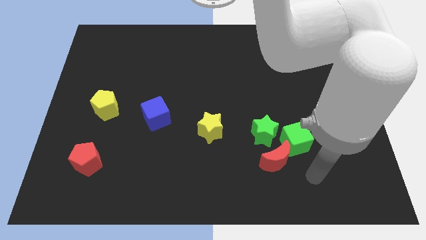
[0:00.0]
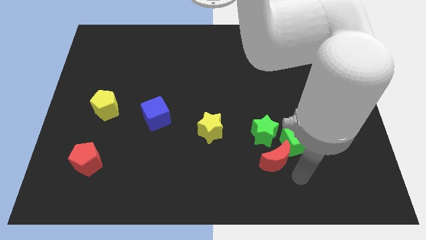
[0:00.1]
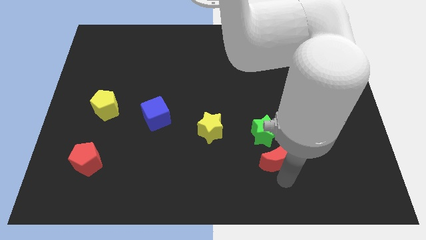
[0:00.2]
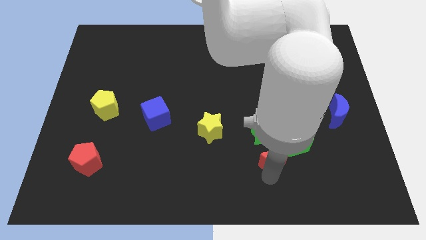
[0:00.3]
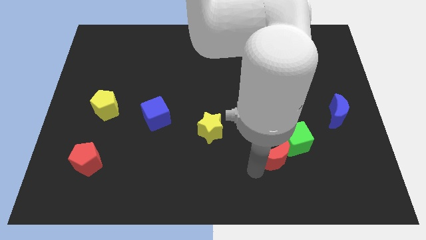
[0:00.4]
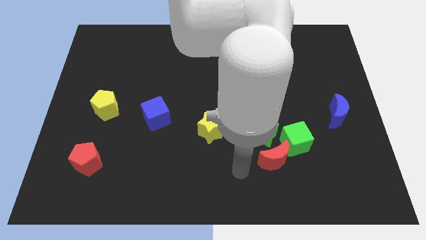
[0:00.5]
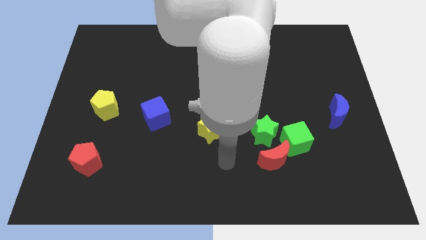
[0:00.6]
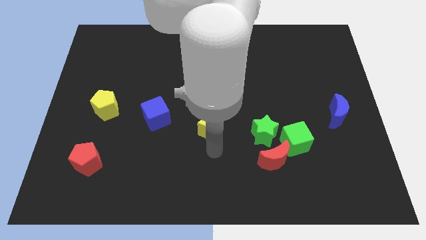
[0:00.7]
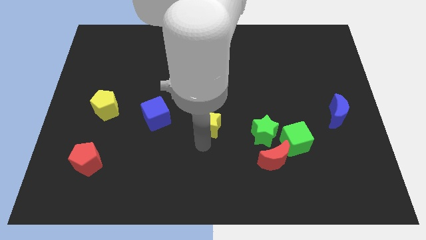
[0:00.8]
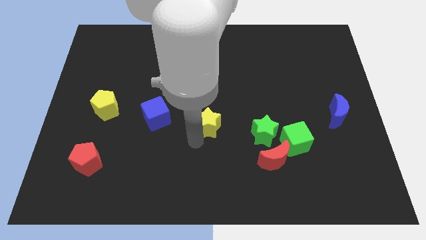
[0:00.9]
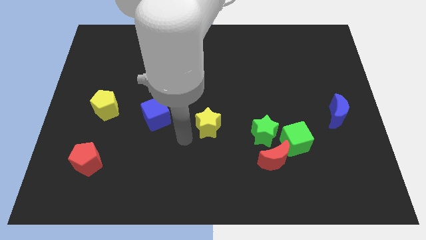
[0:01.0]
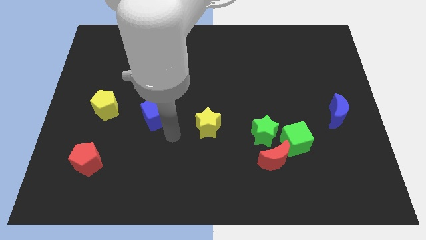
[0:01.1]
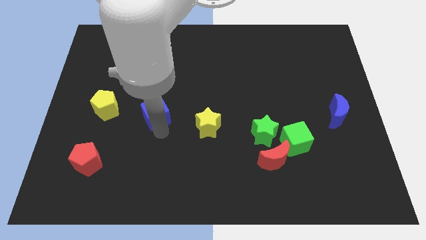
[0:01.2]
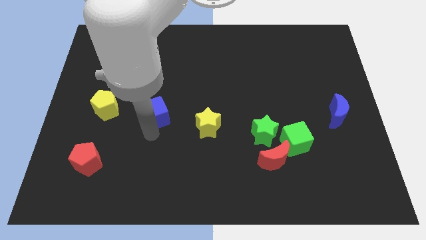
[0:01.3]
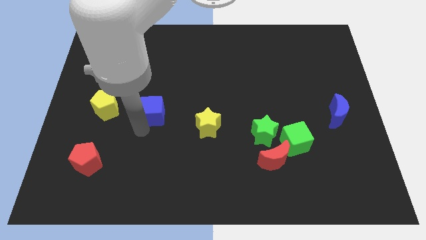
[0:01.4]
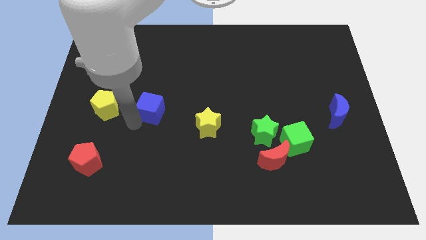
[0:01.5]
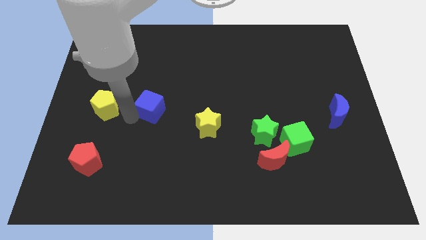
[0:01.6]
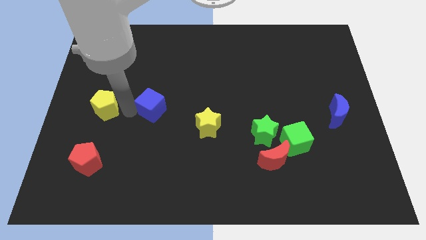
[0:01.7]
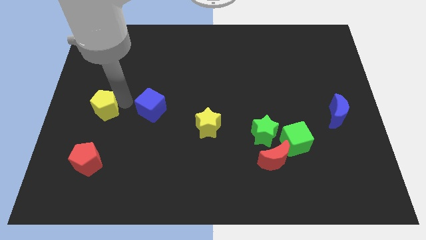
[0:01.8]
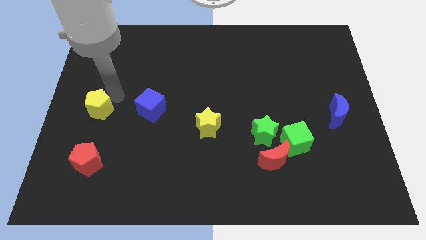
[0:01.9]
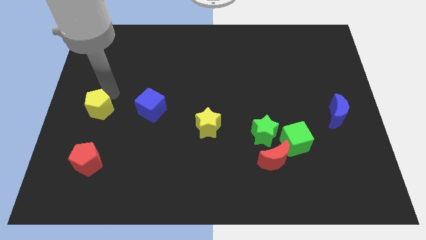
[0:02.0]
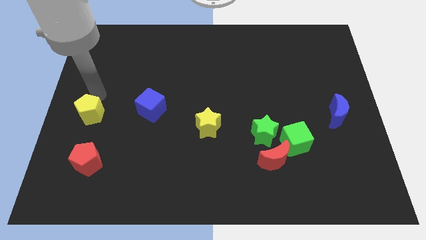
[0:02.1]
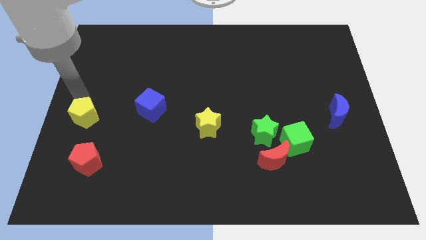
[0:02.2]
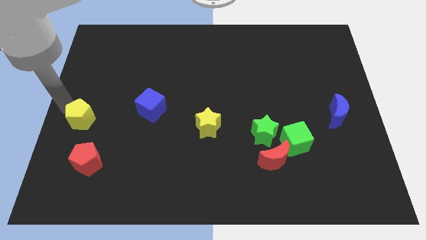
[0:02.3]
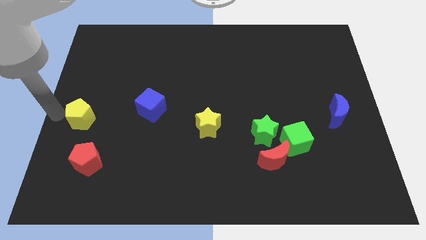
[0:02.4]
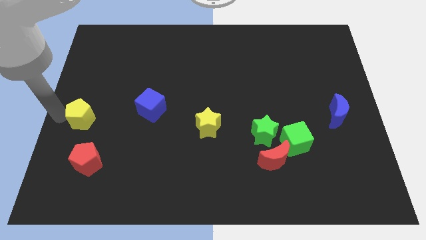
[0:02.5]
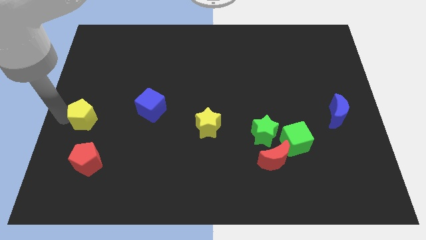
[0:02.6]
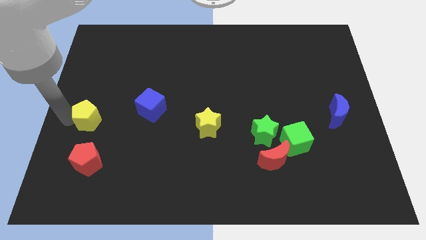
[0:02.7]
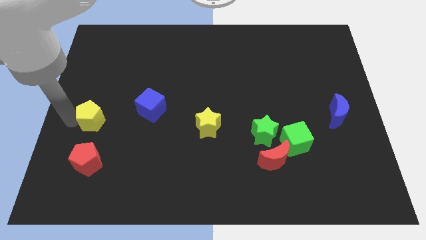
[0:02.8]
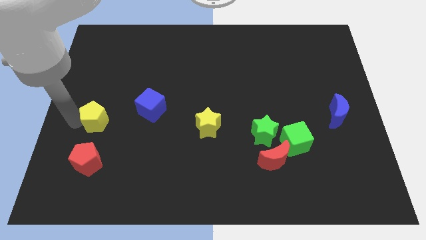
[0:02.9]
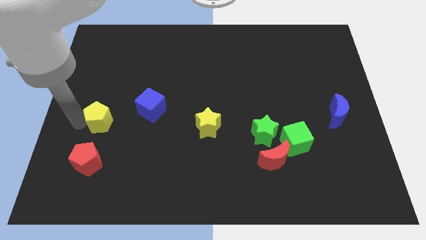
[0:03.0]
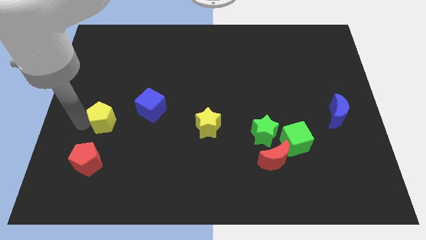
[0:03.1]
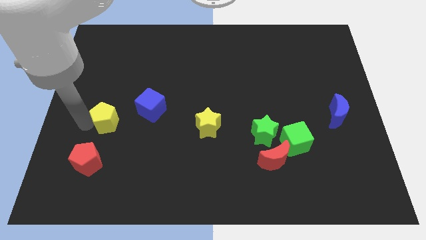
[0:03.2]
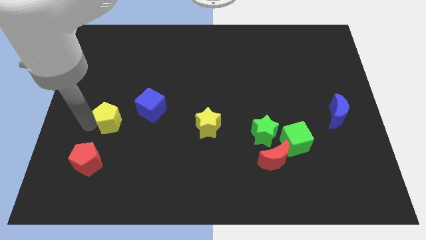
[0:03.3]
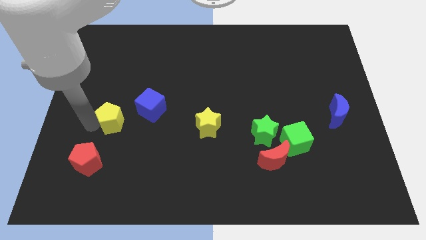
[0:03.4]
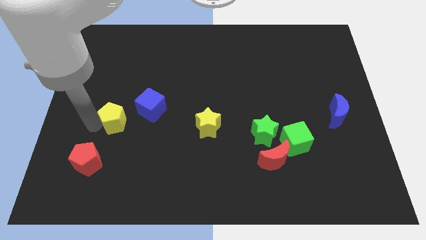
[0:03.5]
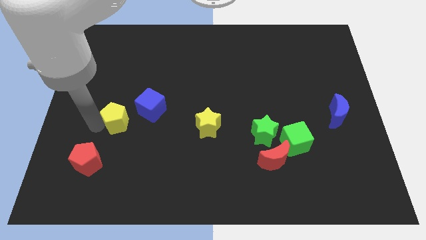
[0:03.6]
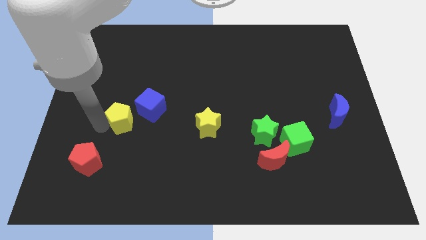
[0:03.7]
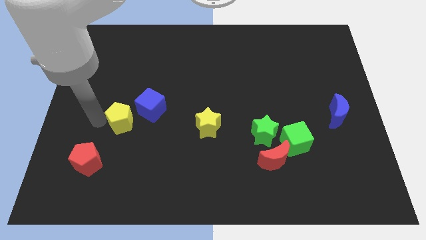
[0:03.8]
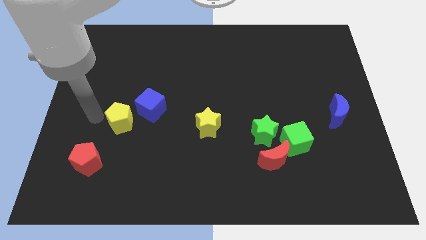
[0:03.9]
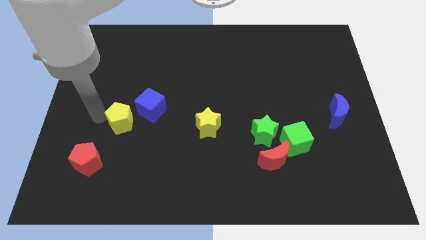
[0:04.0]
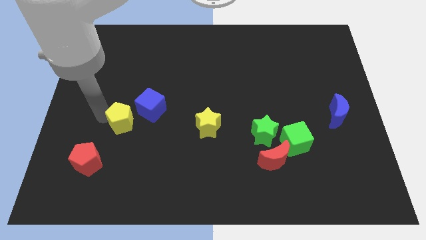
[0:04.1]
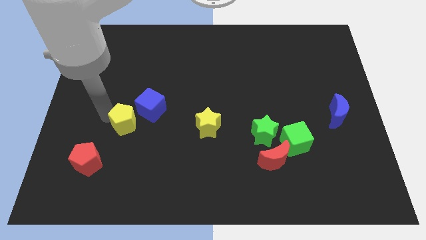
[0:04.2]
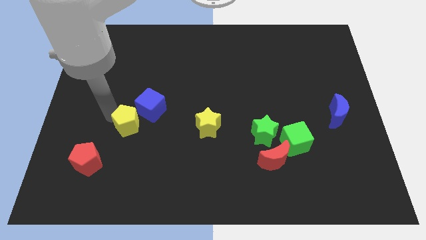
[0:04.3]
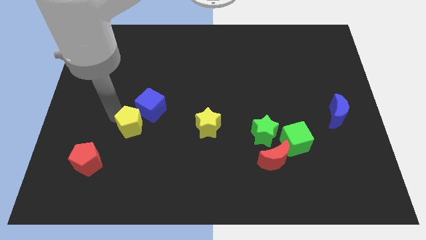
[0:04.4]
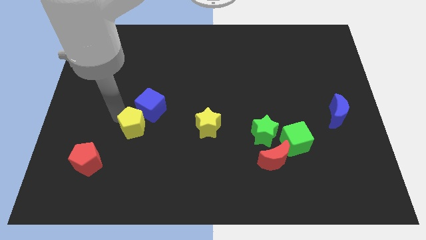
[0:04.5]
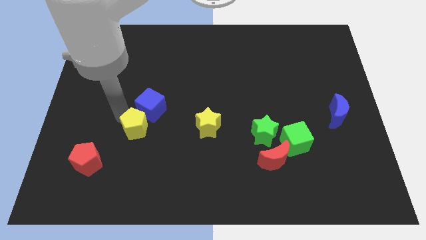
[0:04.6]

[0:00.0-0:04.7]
put the yellow pentagon left of the yellow star

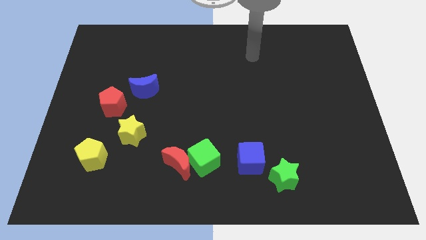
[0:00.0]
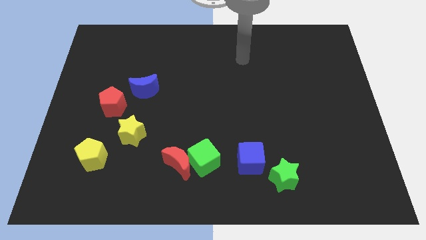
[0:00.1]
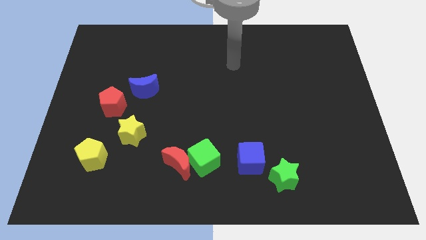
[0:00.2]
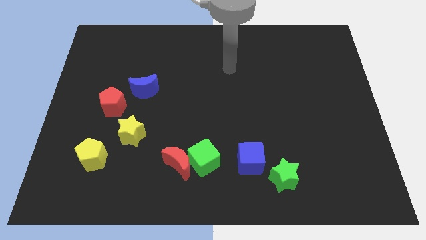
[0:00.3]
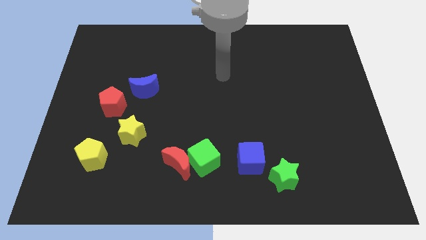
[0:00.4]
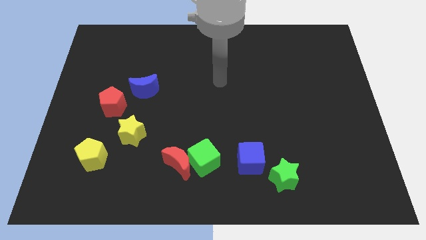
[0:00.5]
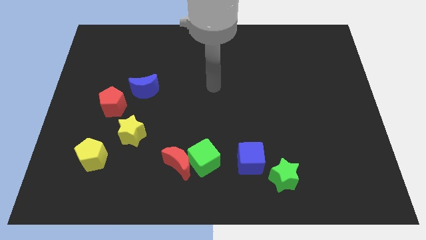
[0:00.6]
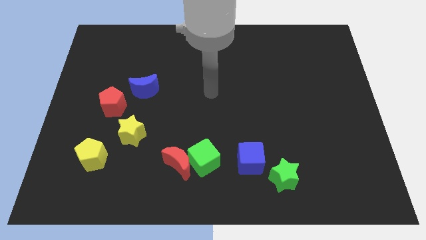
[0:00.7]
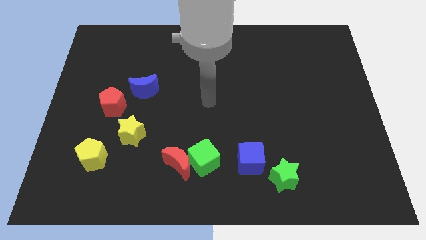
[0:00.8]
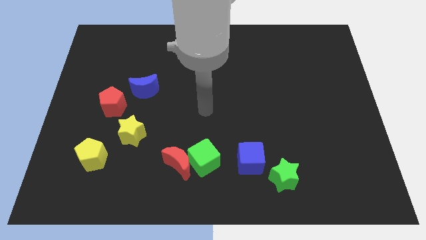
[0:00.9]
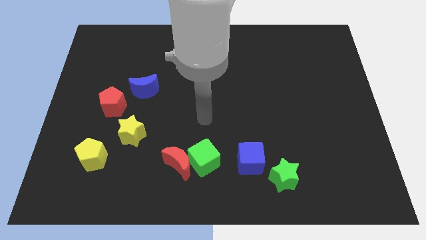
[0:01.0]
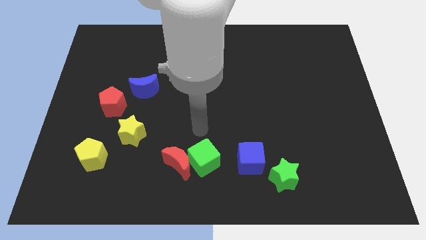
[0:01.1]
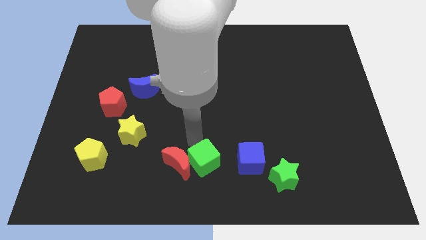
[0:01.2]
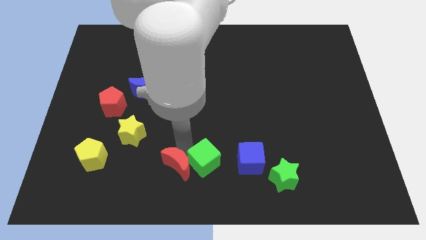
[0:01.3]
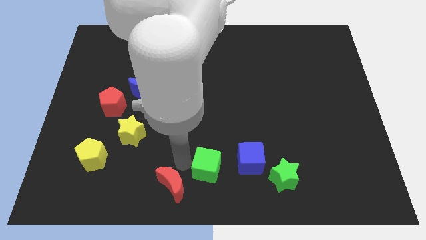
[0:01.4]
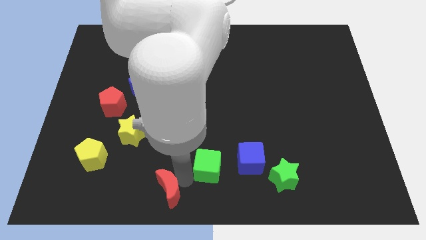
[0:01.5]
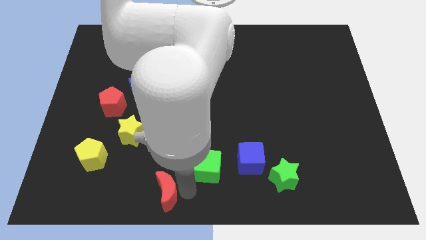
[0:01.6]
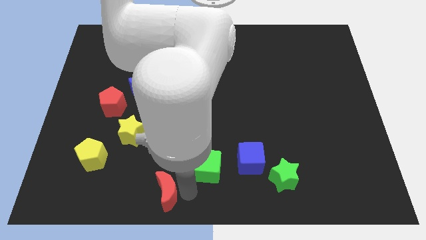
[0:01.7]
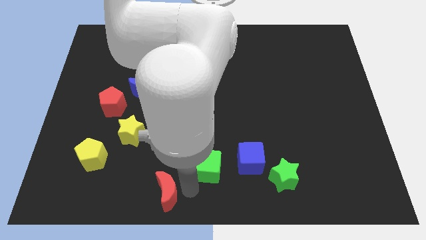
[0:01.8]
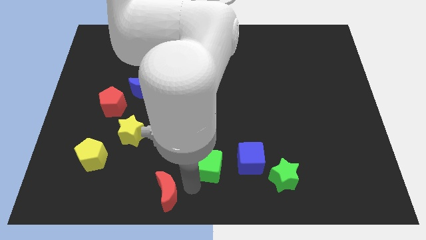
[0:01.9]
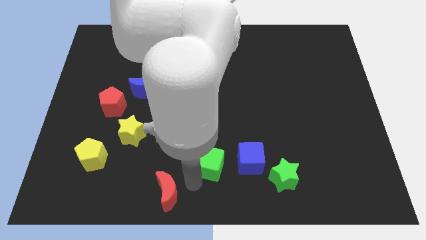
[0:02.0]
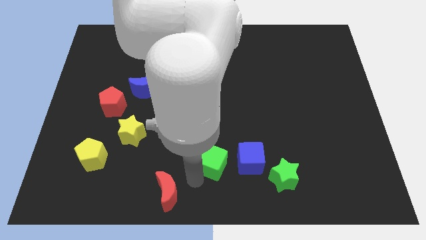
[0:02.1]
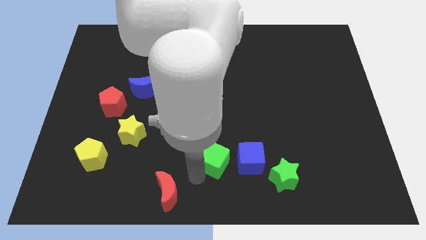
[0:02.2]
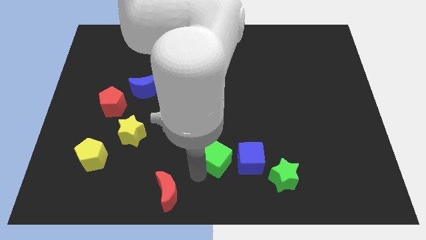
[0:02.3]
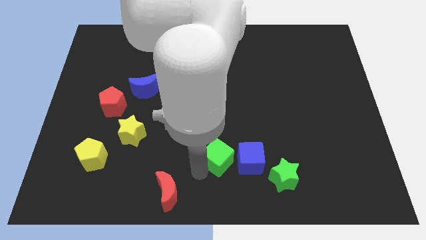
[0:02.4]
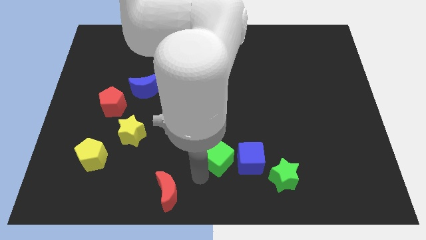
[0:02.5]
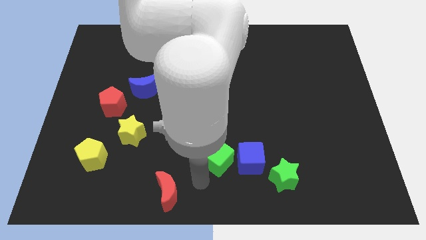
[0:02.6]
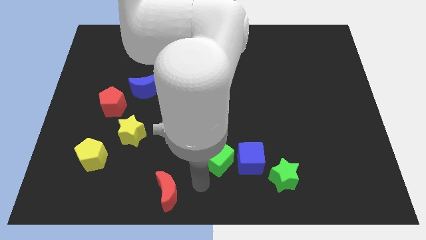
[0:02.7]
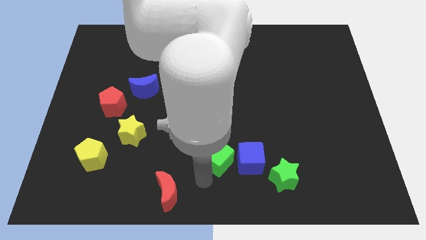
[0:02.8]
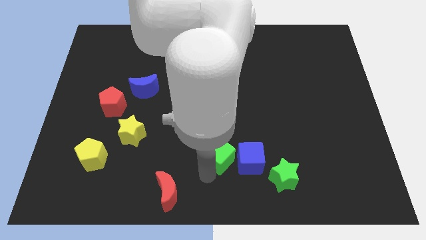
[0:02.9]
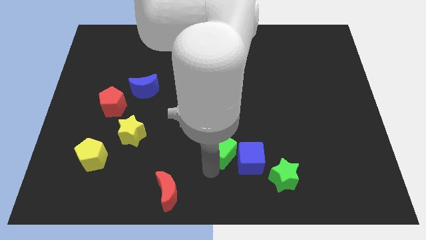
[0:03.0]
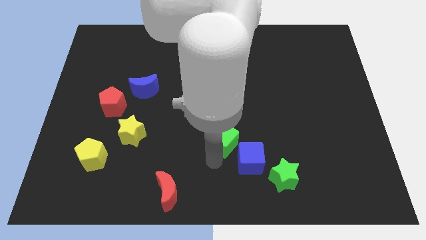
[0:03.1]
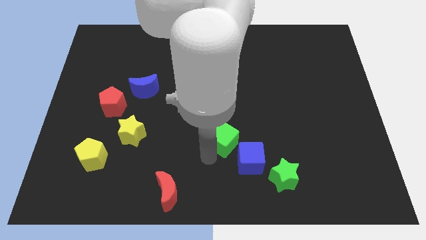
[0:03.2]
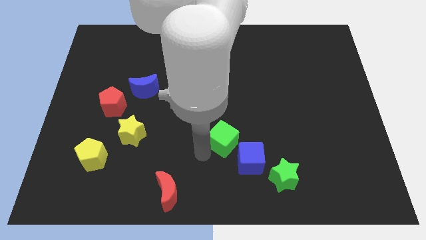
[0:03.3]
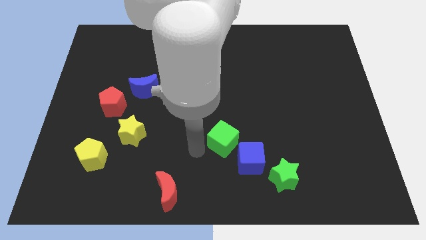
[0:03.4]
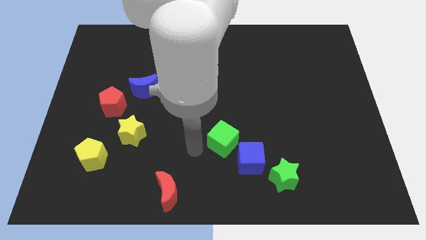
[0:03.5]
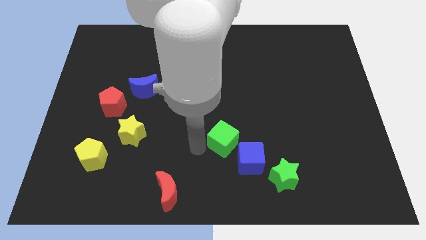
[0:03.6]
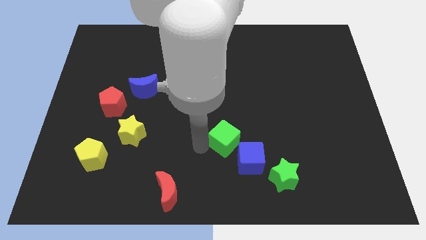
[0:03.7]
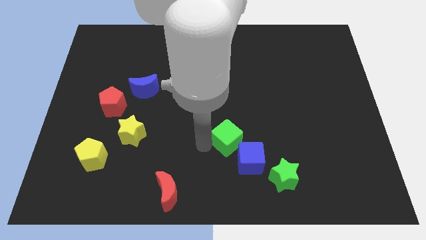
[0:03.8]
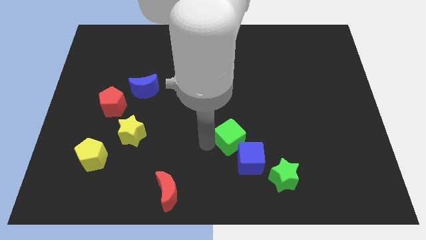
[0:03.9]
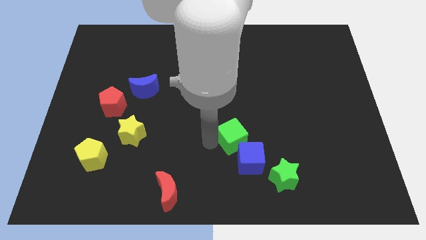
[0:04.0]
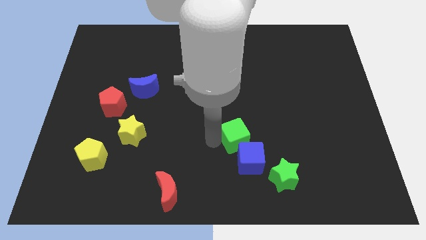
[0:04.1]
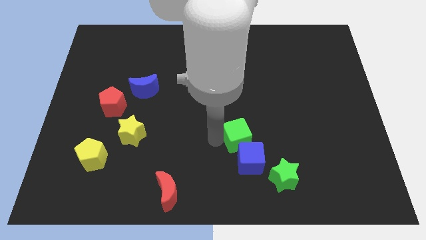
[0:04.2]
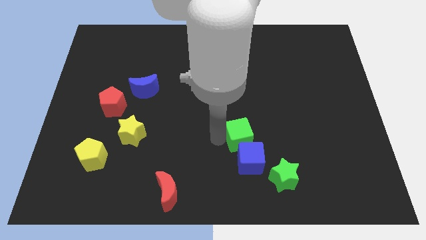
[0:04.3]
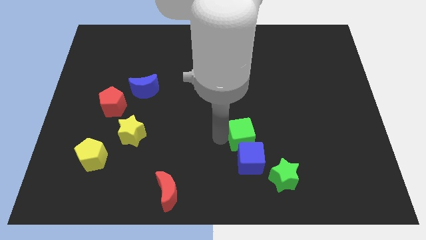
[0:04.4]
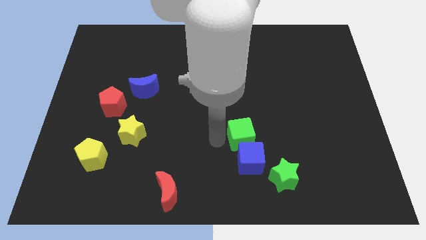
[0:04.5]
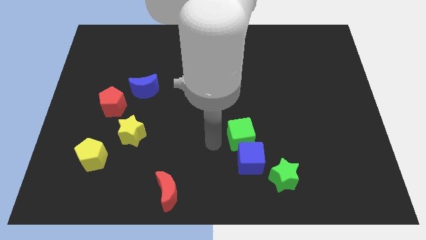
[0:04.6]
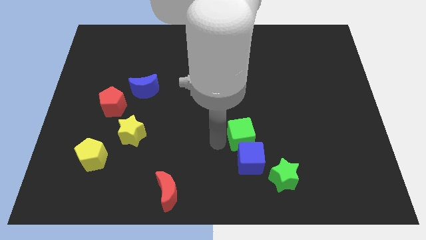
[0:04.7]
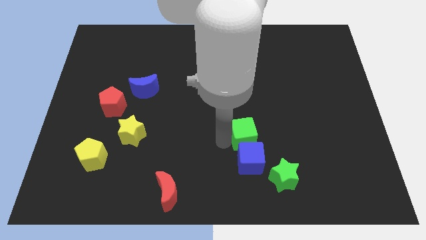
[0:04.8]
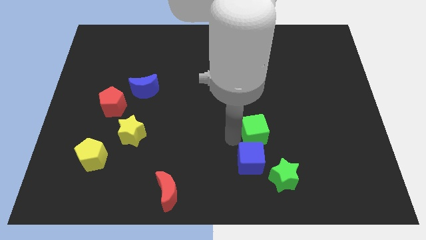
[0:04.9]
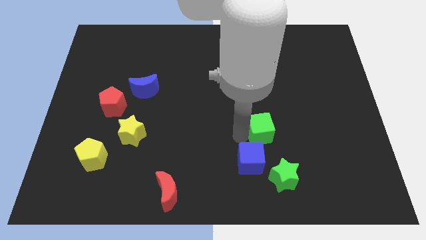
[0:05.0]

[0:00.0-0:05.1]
push the green cube to the top of the green star
